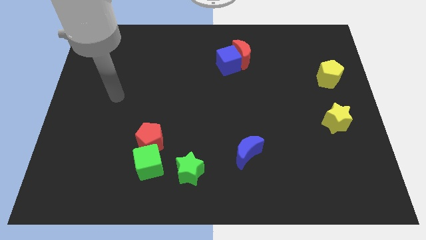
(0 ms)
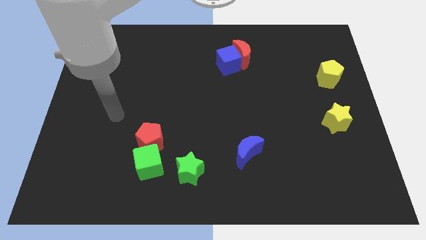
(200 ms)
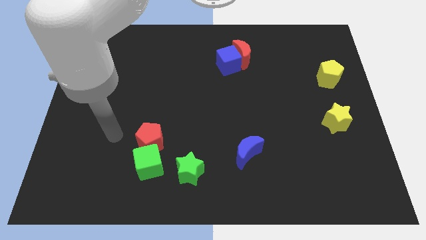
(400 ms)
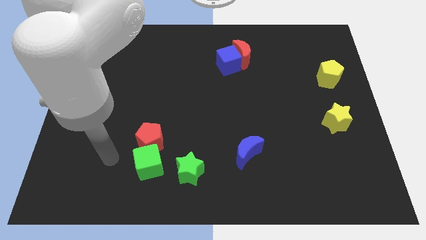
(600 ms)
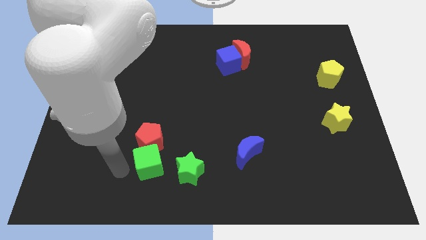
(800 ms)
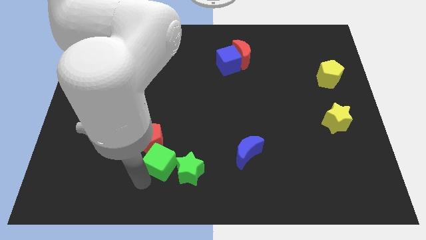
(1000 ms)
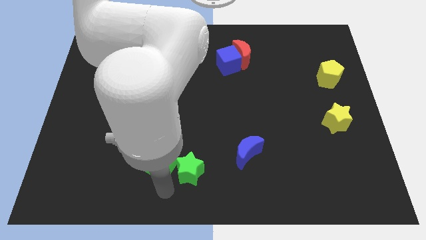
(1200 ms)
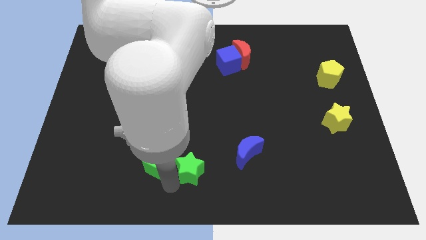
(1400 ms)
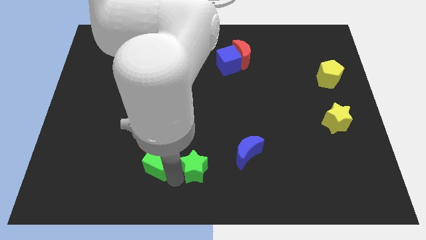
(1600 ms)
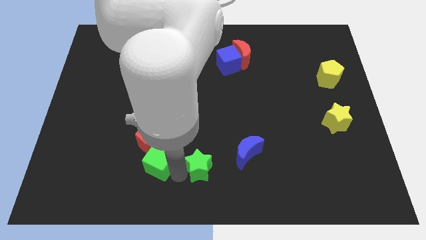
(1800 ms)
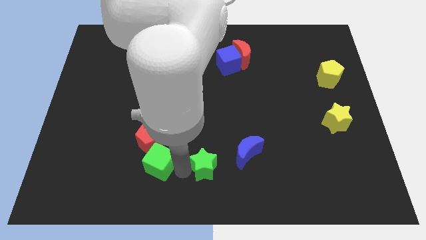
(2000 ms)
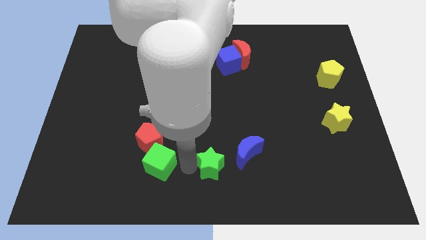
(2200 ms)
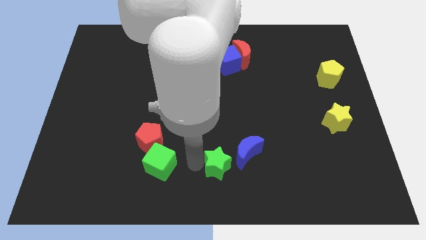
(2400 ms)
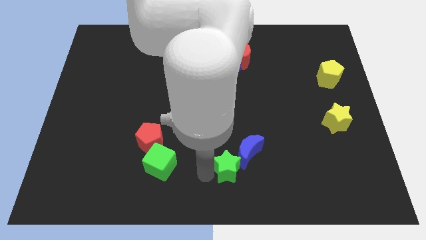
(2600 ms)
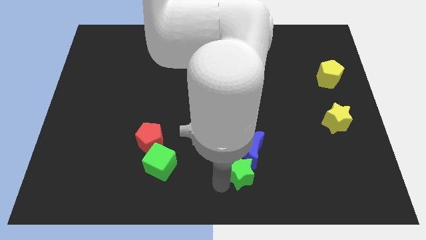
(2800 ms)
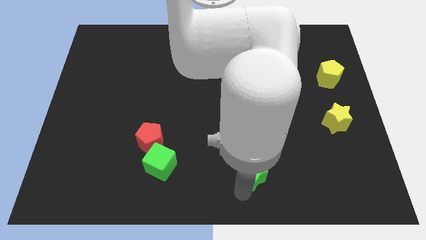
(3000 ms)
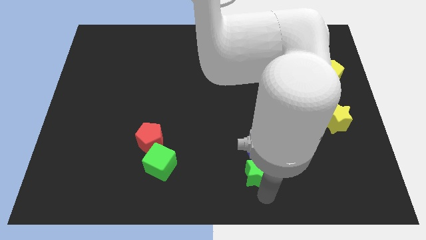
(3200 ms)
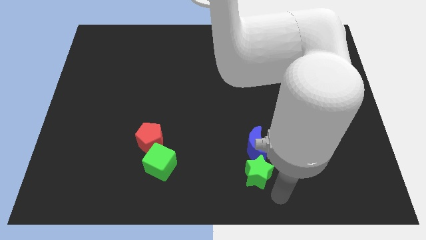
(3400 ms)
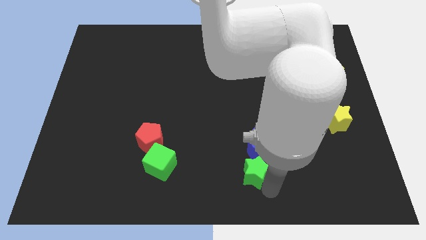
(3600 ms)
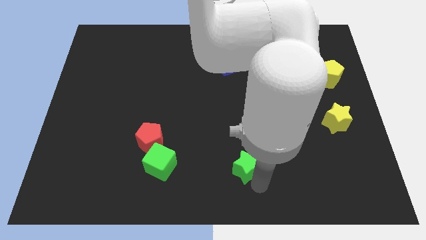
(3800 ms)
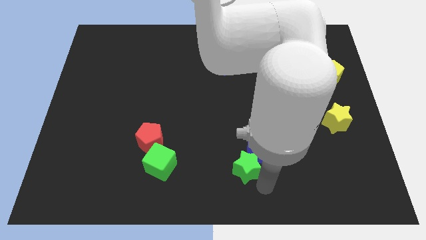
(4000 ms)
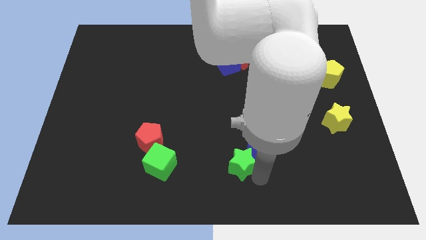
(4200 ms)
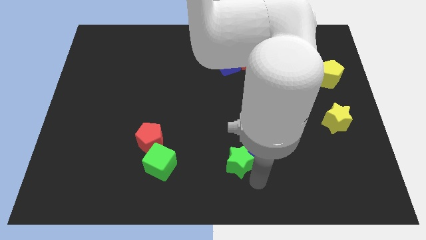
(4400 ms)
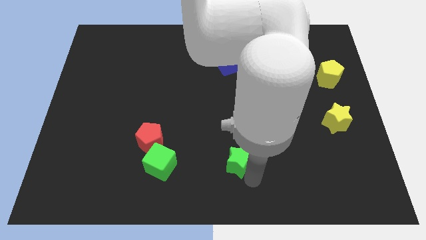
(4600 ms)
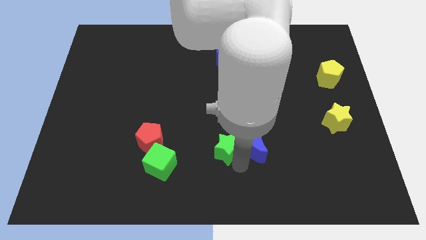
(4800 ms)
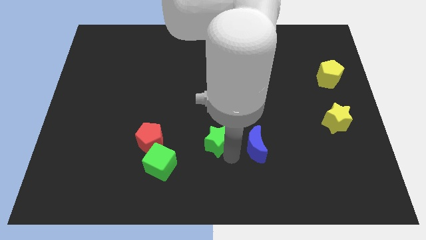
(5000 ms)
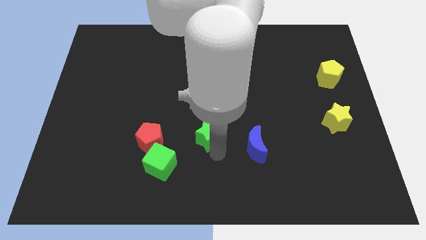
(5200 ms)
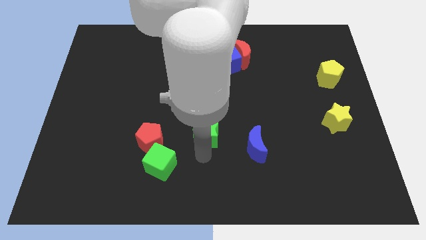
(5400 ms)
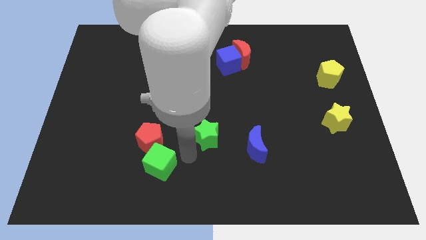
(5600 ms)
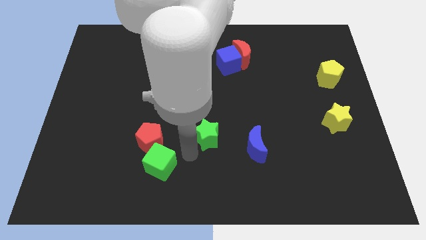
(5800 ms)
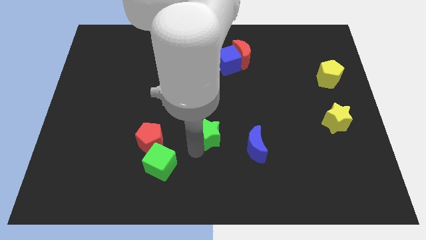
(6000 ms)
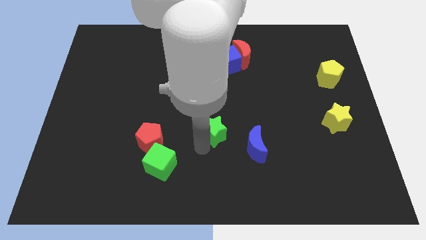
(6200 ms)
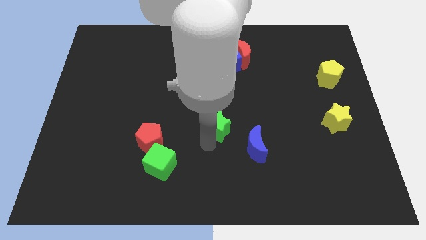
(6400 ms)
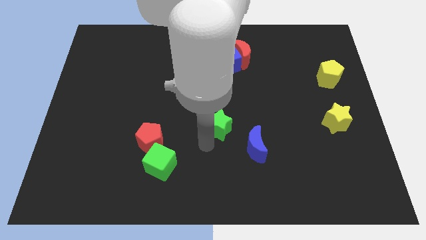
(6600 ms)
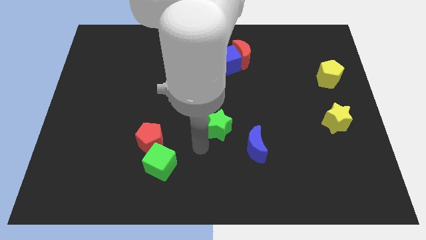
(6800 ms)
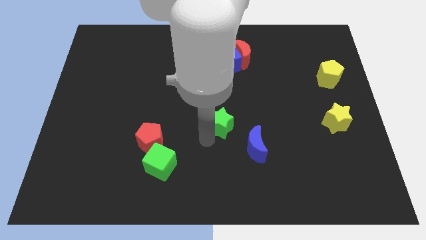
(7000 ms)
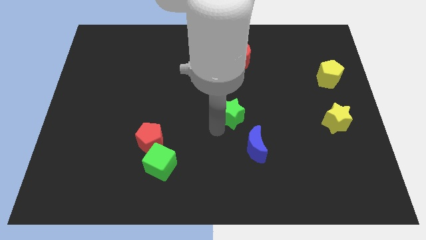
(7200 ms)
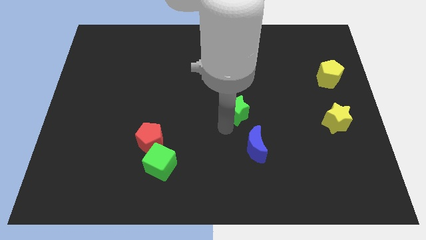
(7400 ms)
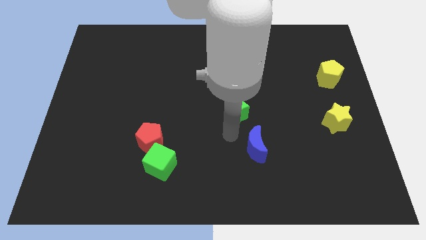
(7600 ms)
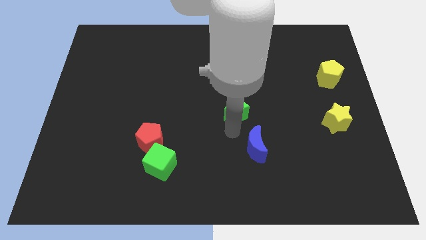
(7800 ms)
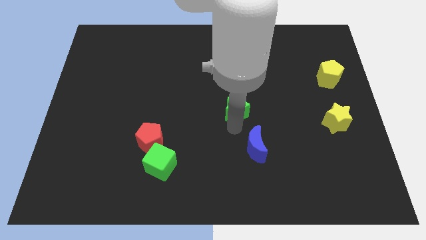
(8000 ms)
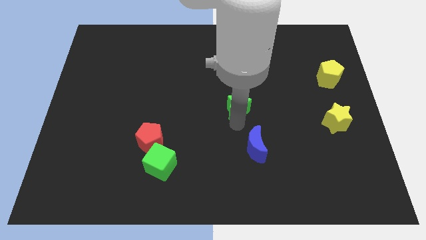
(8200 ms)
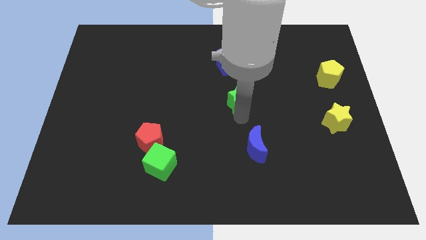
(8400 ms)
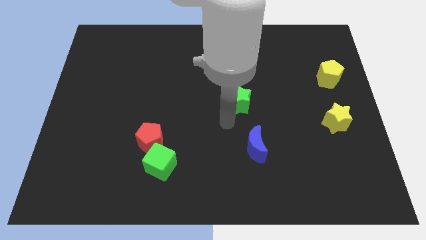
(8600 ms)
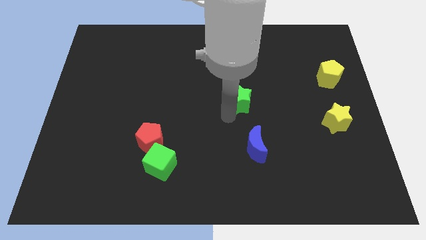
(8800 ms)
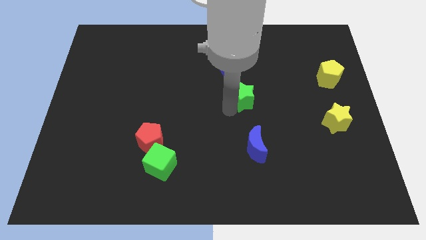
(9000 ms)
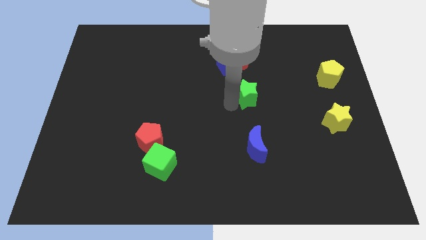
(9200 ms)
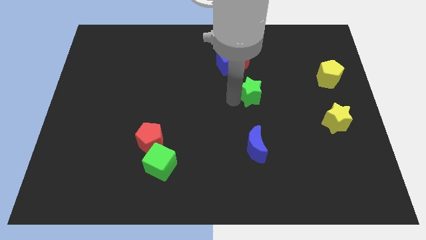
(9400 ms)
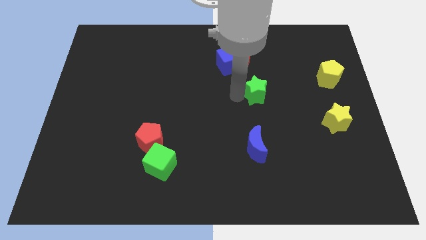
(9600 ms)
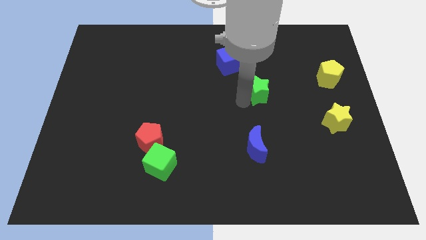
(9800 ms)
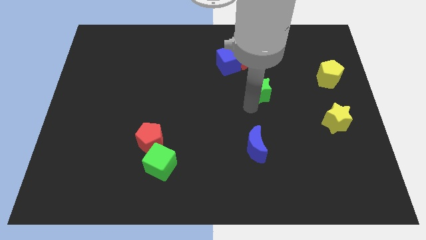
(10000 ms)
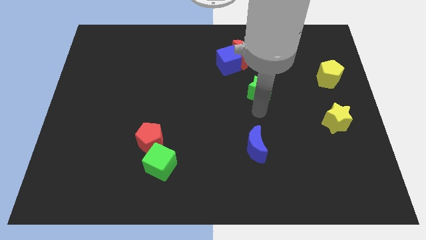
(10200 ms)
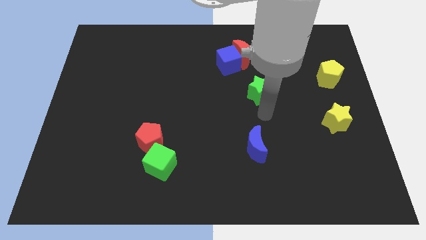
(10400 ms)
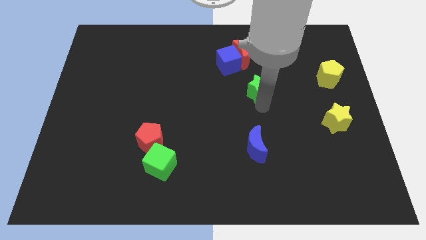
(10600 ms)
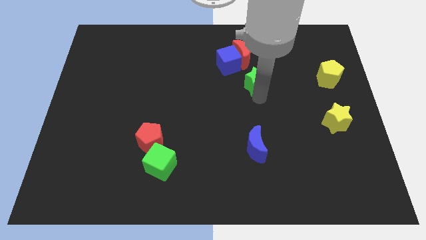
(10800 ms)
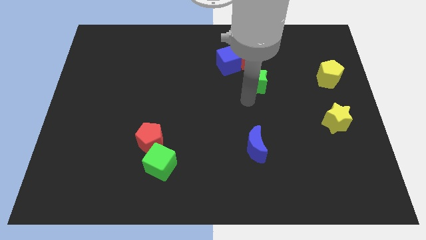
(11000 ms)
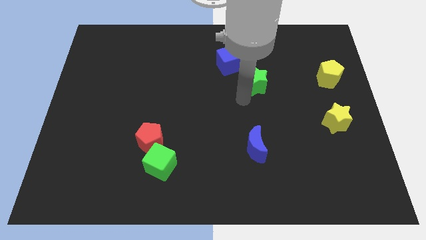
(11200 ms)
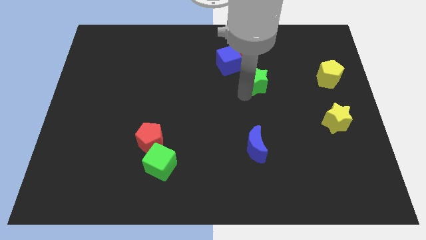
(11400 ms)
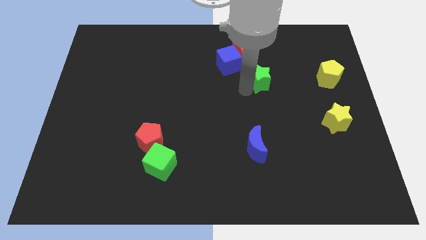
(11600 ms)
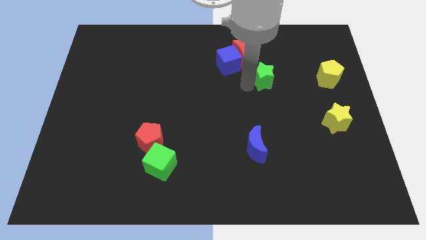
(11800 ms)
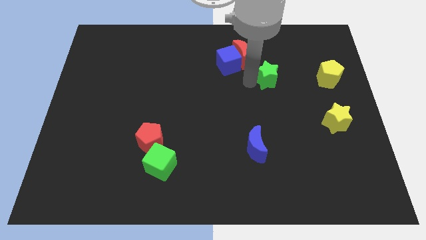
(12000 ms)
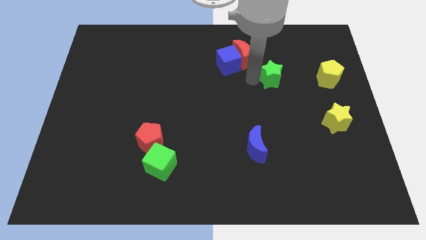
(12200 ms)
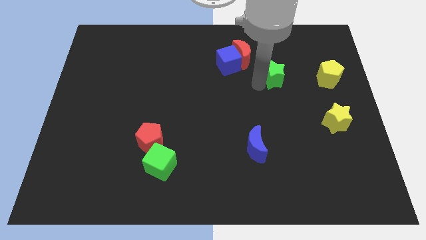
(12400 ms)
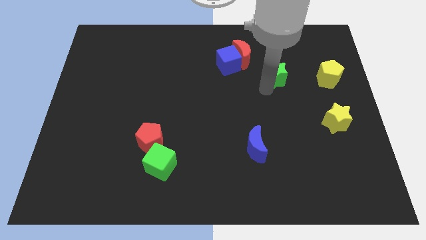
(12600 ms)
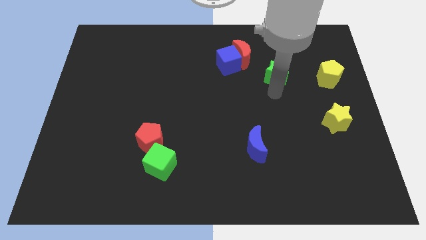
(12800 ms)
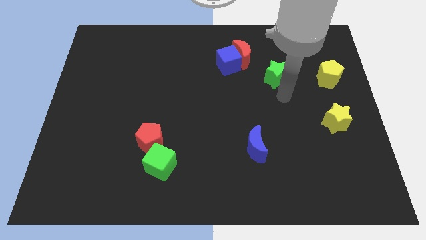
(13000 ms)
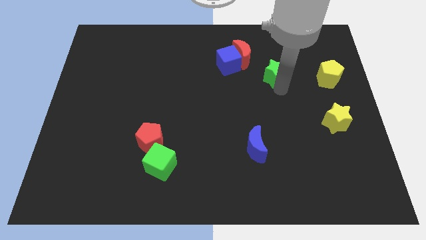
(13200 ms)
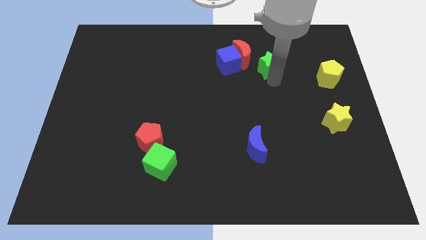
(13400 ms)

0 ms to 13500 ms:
move the green star to the right side of the red moon

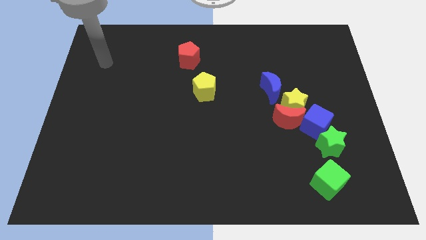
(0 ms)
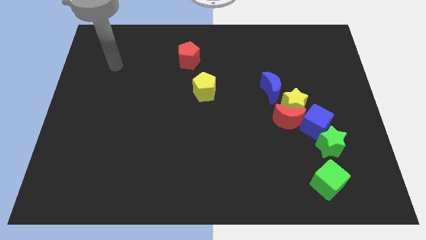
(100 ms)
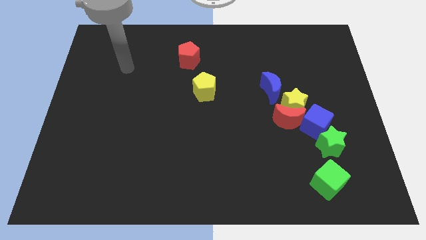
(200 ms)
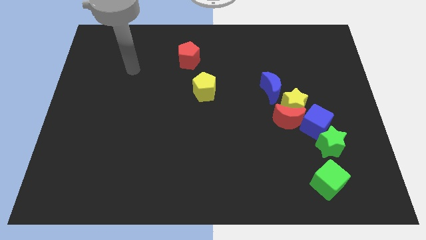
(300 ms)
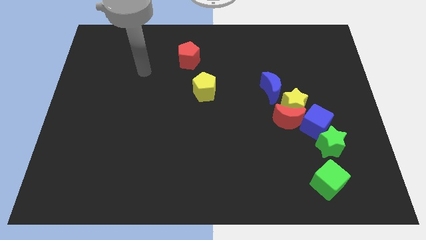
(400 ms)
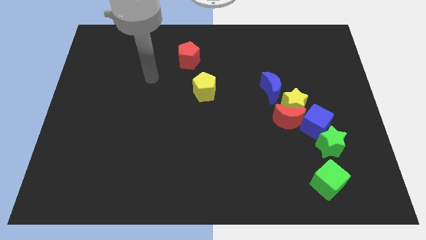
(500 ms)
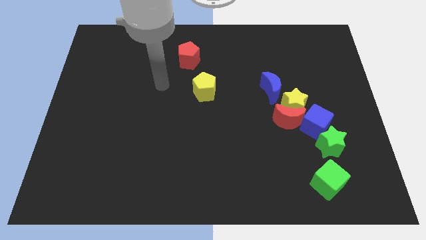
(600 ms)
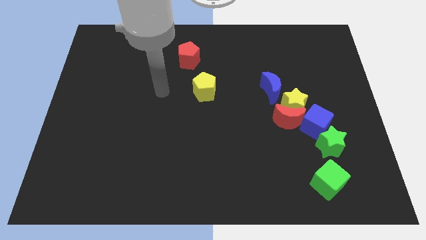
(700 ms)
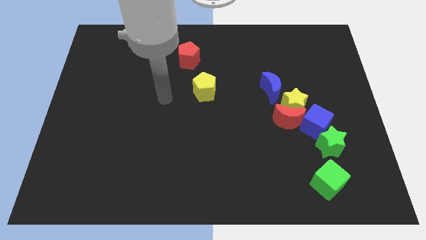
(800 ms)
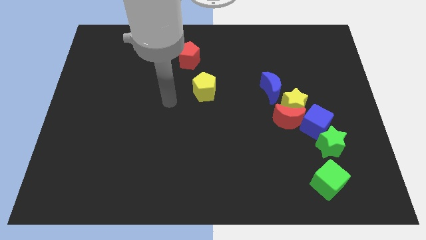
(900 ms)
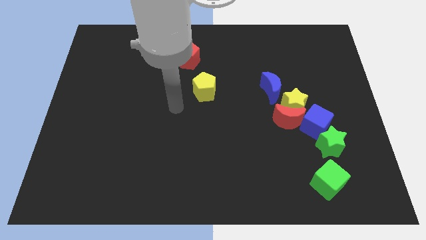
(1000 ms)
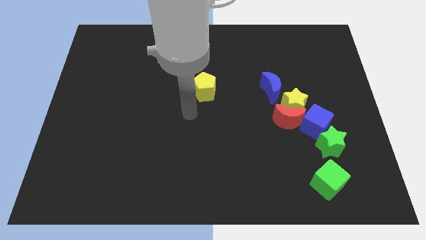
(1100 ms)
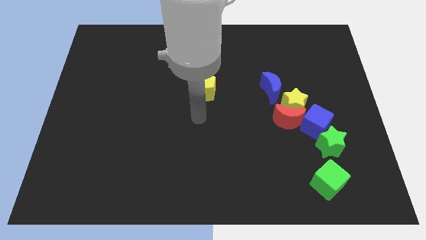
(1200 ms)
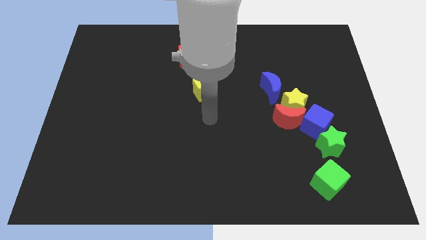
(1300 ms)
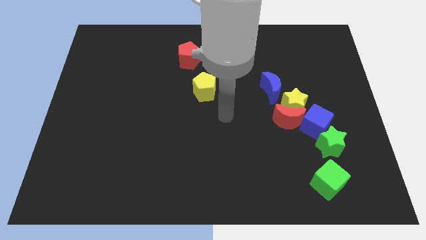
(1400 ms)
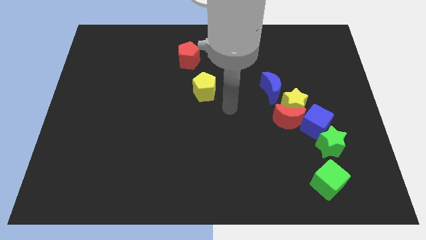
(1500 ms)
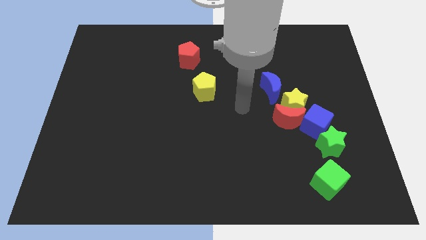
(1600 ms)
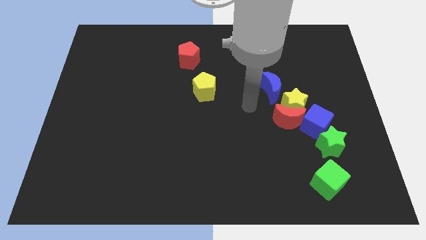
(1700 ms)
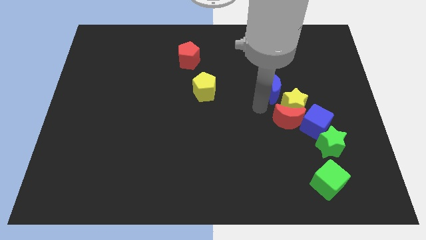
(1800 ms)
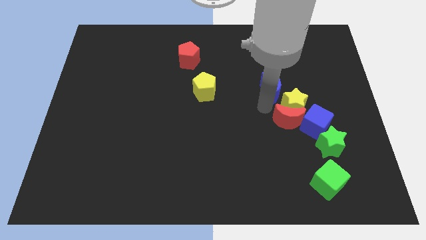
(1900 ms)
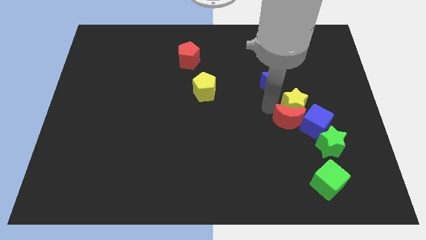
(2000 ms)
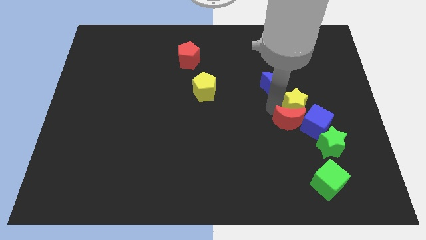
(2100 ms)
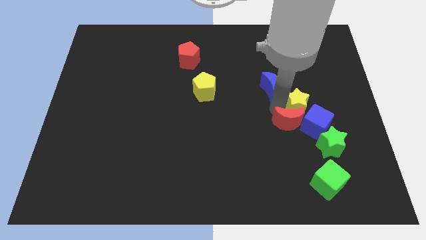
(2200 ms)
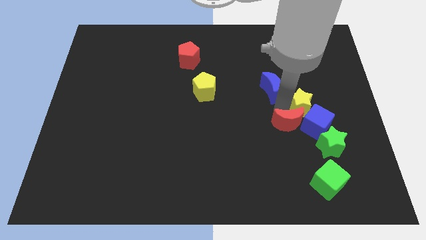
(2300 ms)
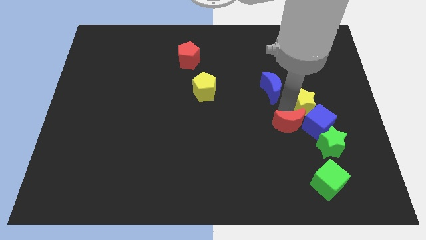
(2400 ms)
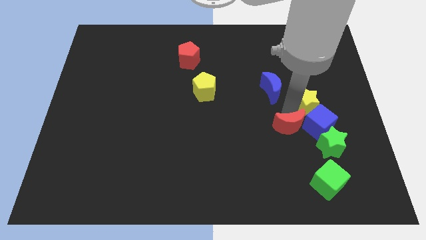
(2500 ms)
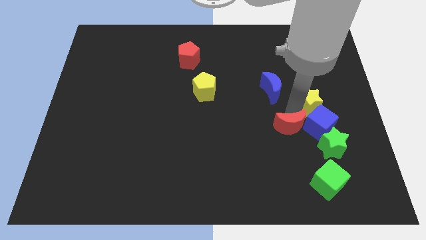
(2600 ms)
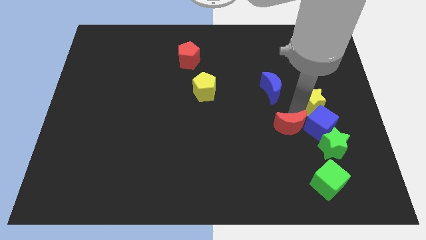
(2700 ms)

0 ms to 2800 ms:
slide the yellow star to the top right of the blue cube
